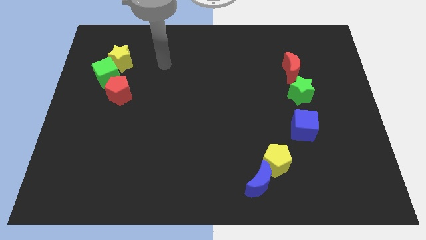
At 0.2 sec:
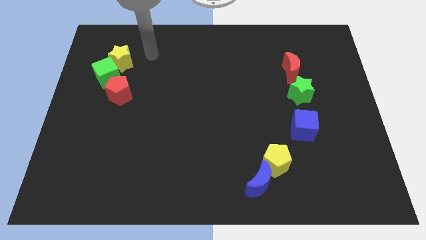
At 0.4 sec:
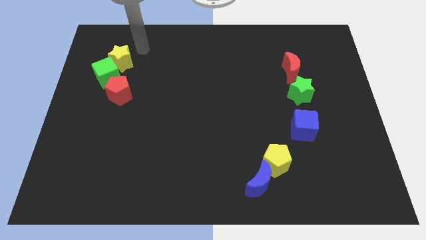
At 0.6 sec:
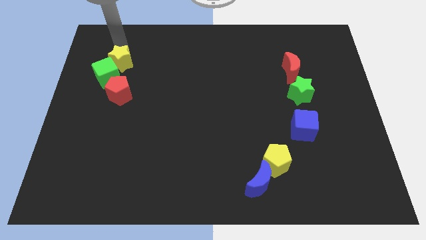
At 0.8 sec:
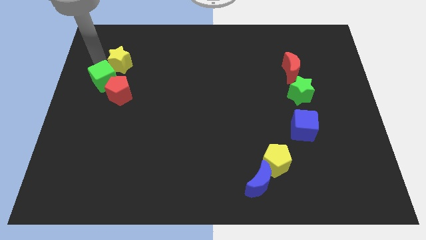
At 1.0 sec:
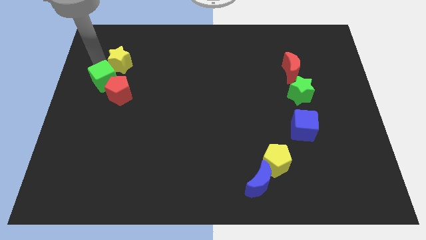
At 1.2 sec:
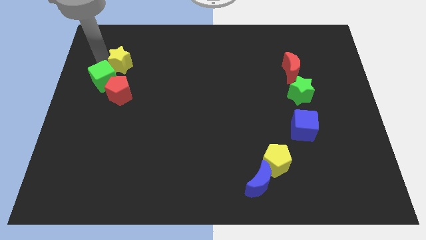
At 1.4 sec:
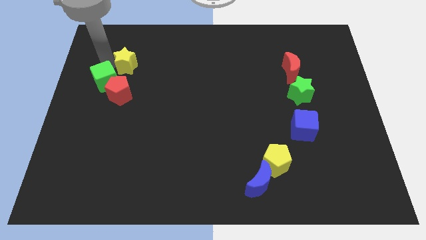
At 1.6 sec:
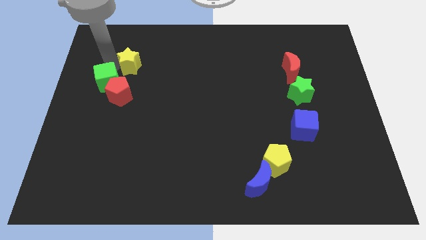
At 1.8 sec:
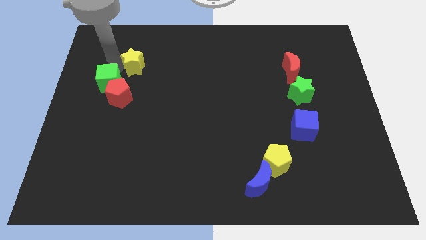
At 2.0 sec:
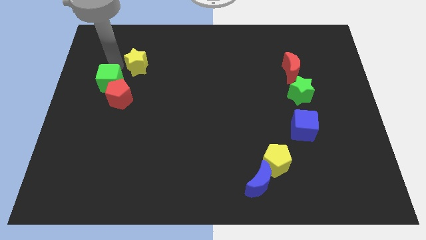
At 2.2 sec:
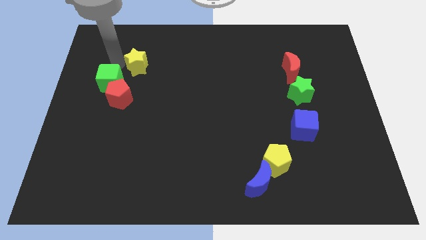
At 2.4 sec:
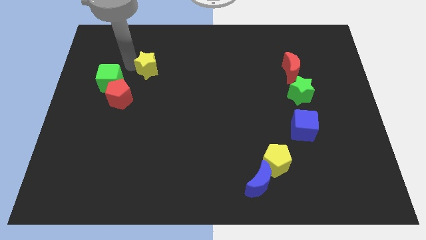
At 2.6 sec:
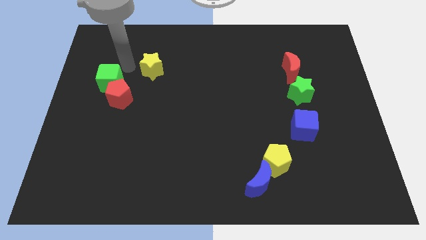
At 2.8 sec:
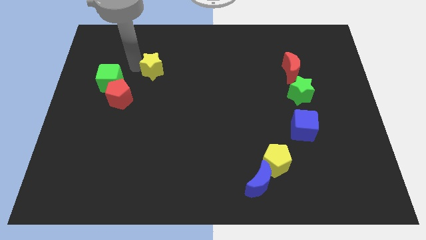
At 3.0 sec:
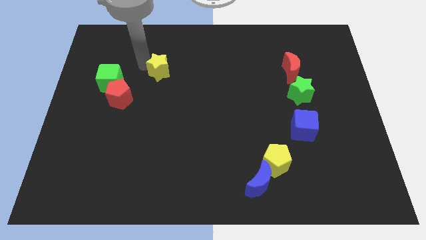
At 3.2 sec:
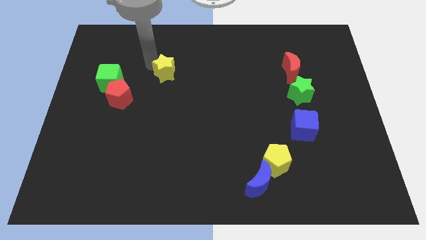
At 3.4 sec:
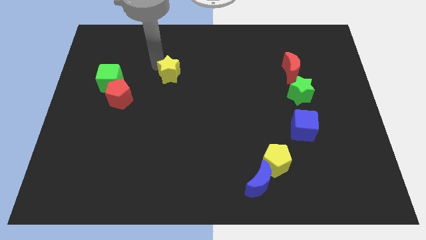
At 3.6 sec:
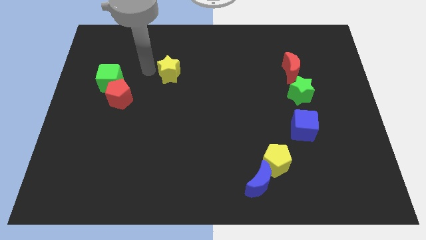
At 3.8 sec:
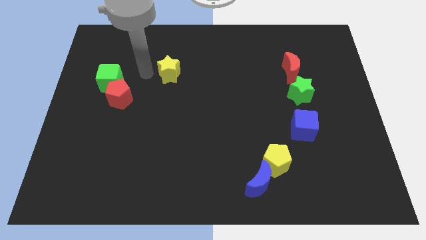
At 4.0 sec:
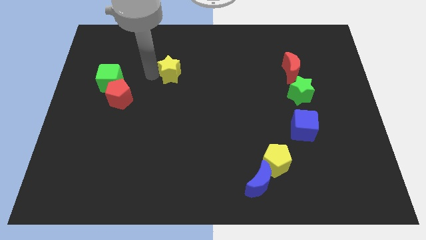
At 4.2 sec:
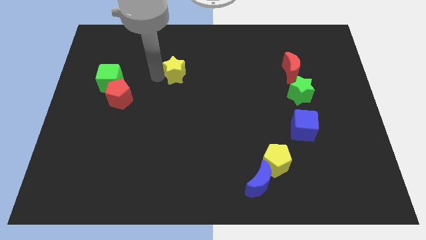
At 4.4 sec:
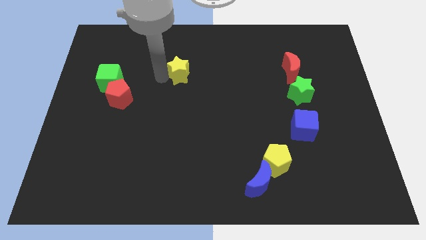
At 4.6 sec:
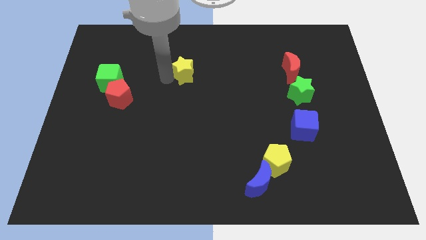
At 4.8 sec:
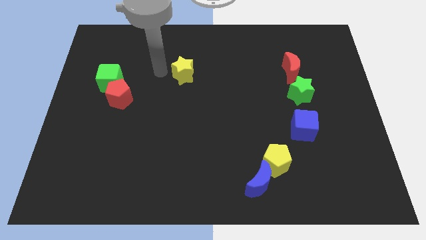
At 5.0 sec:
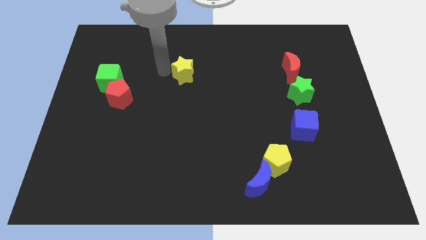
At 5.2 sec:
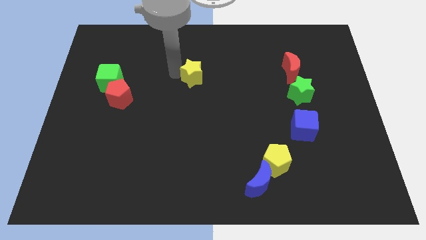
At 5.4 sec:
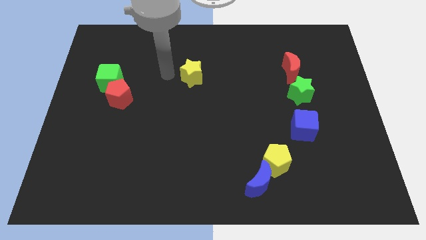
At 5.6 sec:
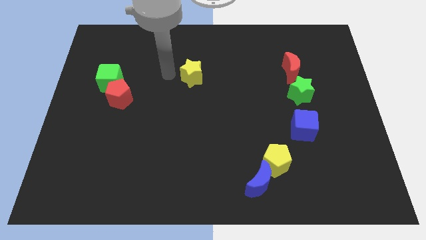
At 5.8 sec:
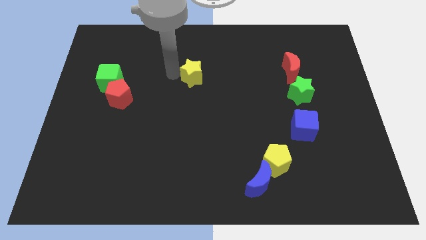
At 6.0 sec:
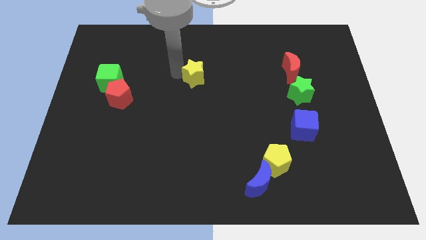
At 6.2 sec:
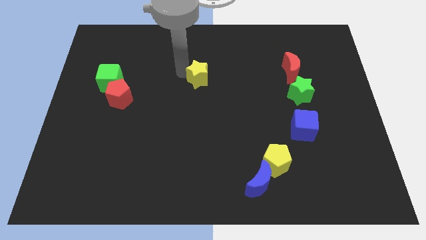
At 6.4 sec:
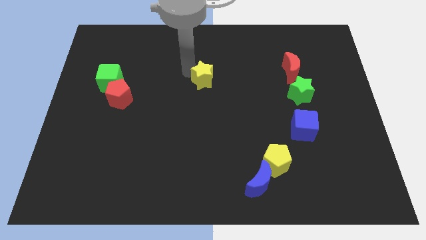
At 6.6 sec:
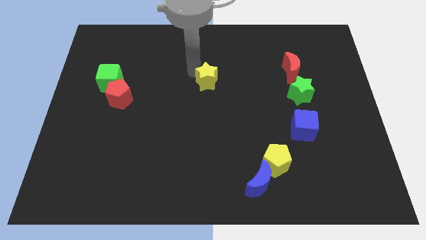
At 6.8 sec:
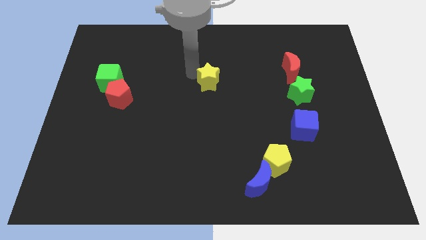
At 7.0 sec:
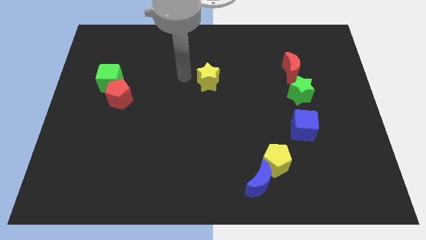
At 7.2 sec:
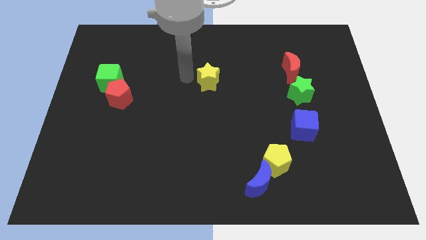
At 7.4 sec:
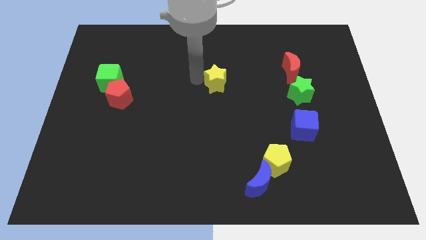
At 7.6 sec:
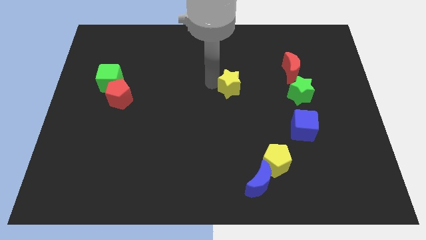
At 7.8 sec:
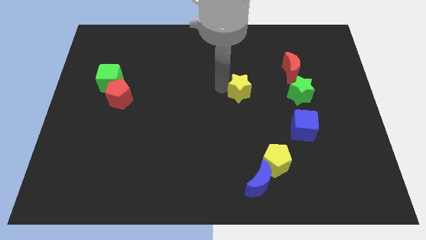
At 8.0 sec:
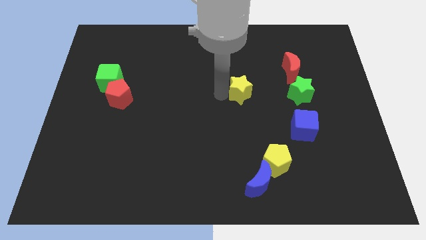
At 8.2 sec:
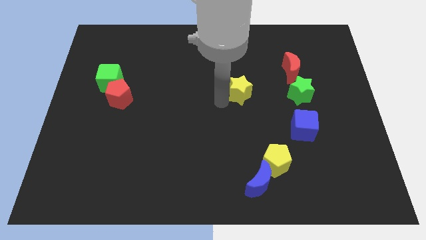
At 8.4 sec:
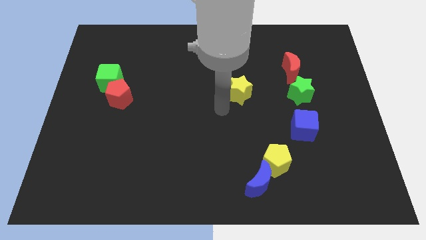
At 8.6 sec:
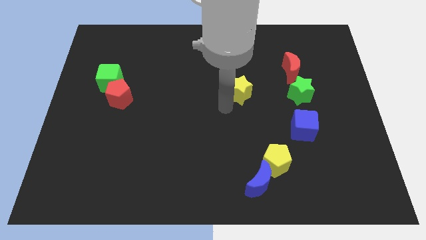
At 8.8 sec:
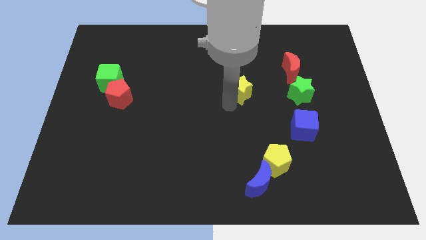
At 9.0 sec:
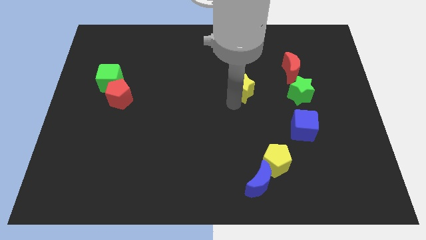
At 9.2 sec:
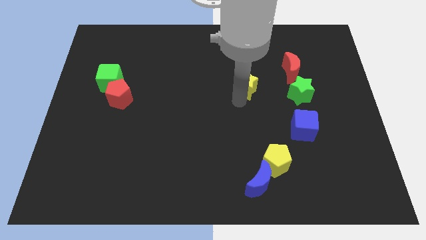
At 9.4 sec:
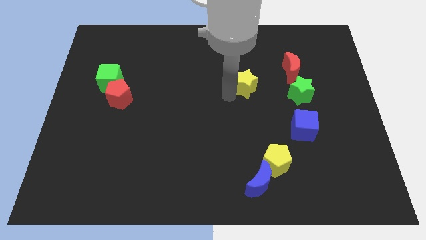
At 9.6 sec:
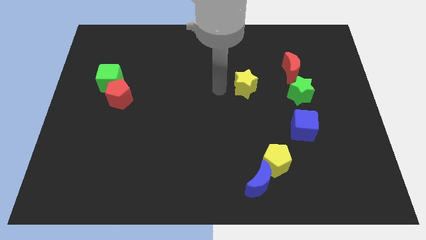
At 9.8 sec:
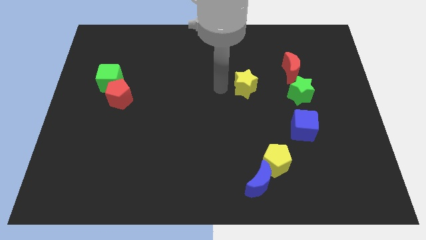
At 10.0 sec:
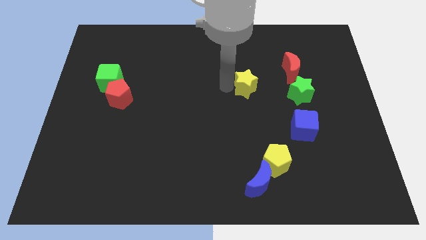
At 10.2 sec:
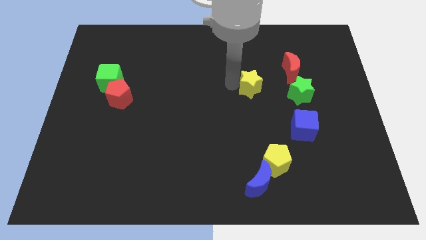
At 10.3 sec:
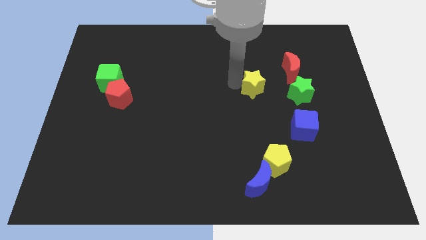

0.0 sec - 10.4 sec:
push the yellow star to the bottom left of the red moon

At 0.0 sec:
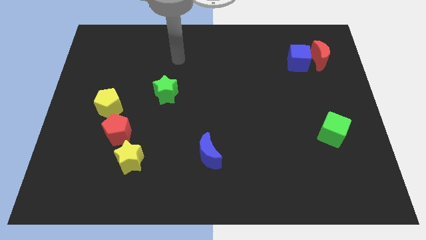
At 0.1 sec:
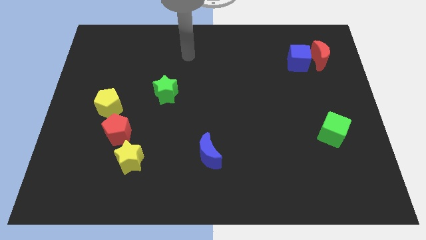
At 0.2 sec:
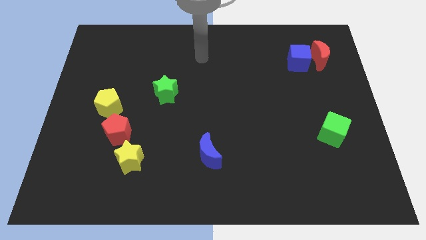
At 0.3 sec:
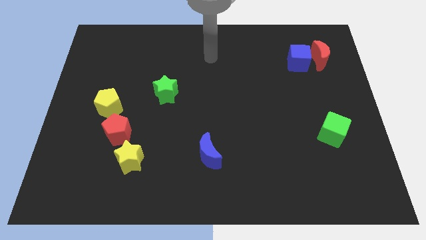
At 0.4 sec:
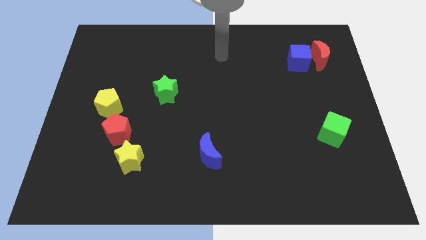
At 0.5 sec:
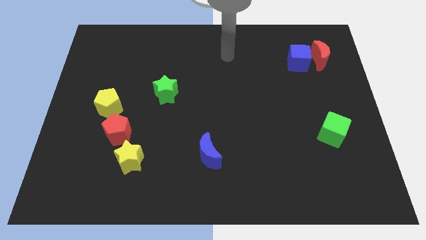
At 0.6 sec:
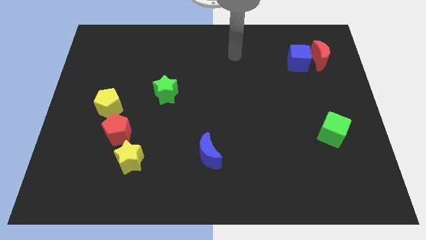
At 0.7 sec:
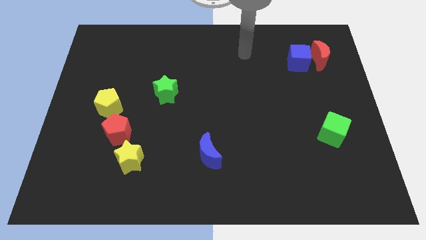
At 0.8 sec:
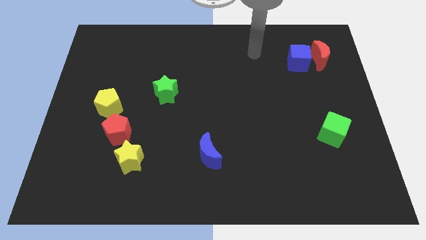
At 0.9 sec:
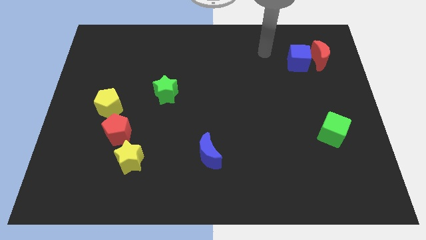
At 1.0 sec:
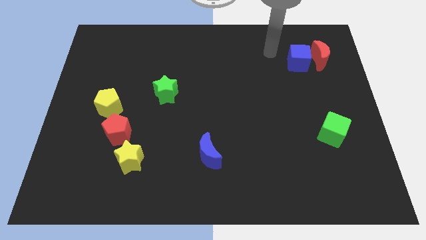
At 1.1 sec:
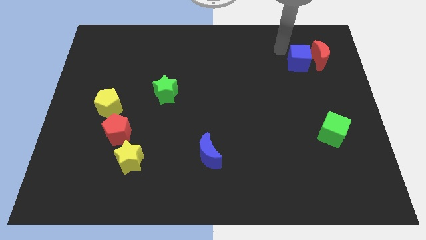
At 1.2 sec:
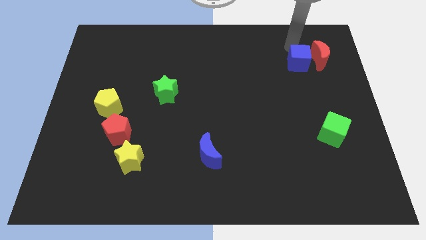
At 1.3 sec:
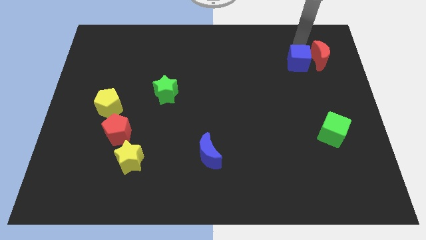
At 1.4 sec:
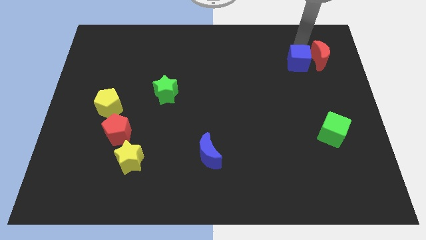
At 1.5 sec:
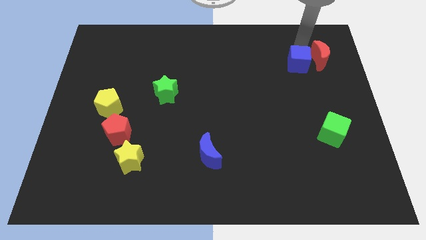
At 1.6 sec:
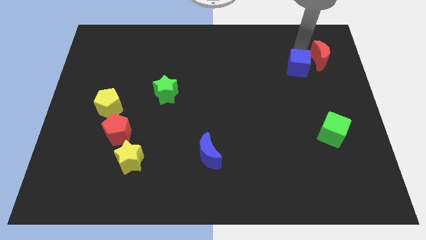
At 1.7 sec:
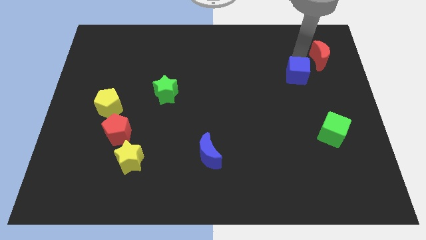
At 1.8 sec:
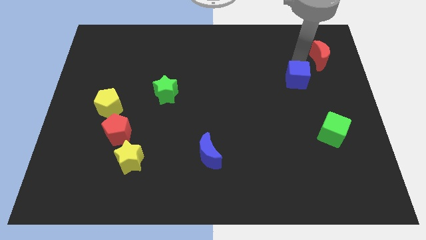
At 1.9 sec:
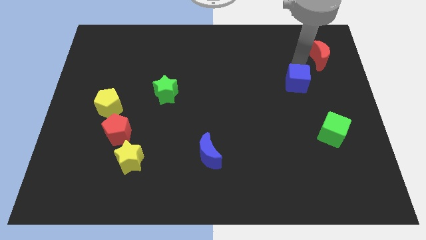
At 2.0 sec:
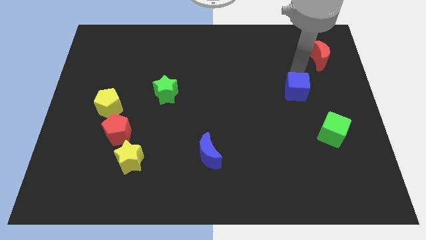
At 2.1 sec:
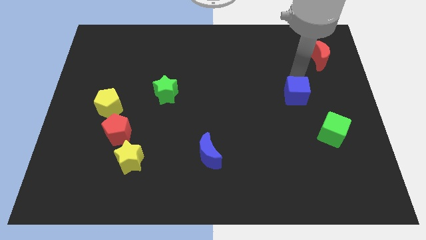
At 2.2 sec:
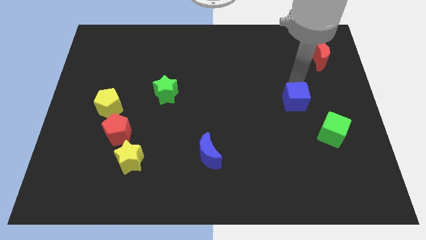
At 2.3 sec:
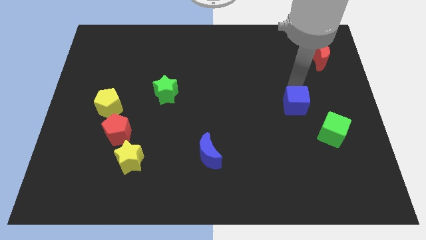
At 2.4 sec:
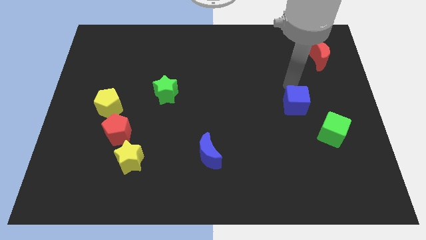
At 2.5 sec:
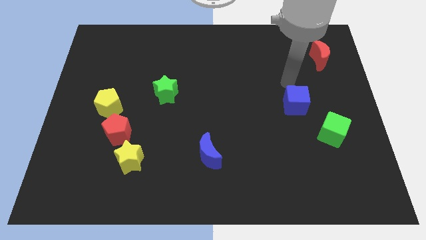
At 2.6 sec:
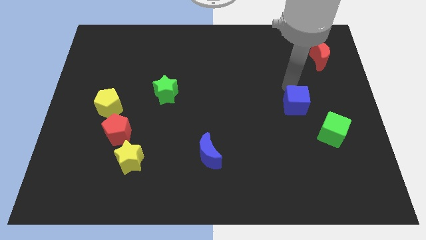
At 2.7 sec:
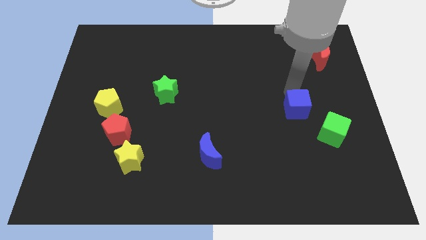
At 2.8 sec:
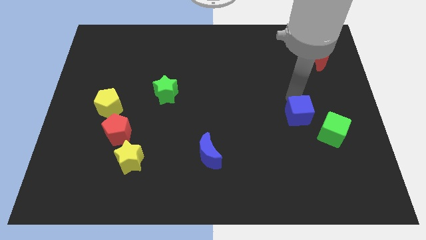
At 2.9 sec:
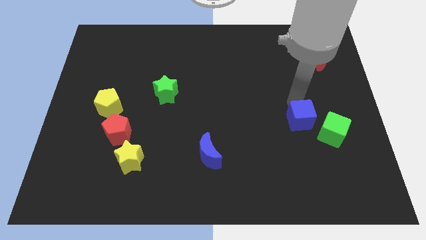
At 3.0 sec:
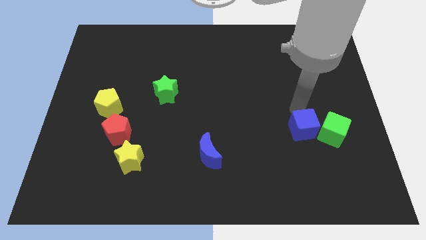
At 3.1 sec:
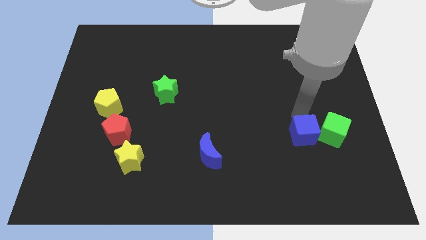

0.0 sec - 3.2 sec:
move the blue cube to the bottom left of the green cube
